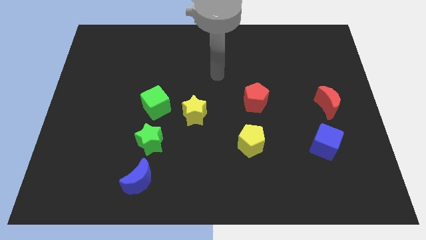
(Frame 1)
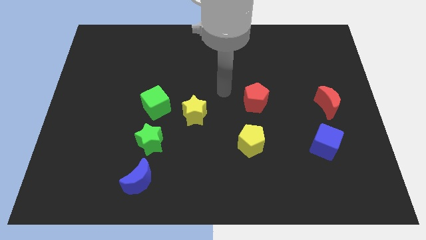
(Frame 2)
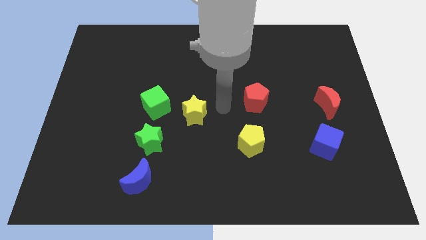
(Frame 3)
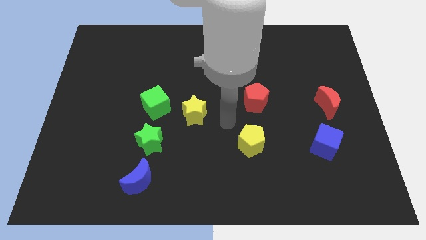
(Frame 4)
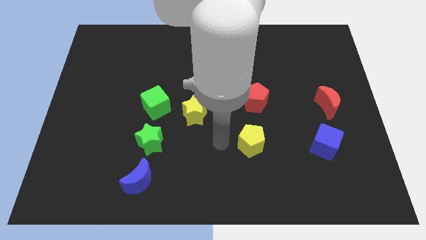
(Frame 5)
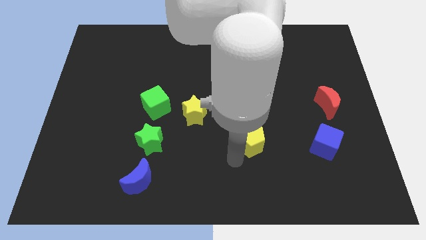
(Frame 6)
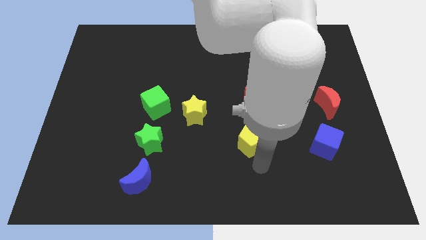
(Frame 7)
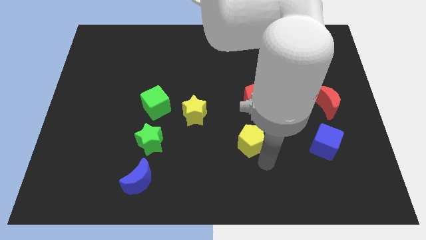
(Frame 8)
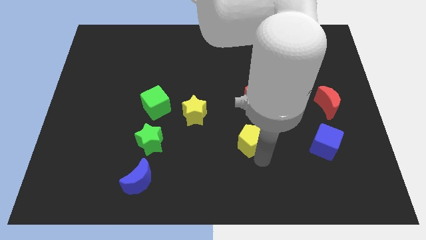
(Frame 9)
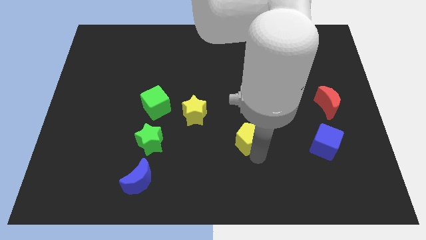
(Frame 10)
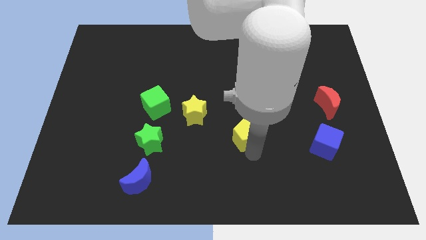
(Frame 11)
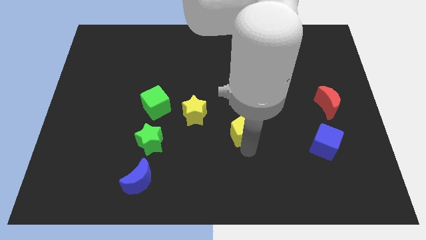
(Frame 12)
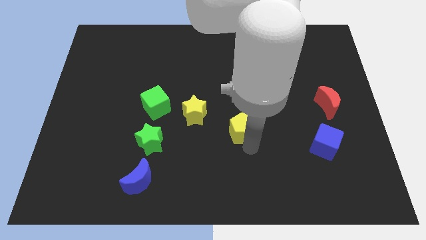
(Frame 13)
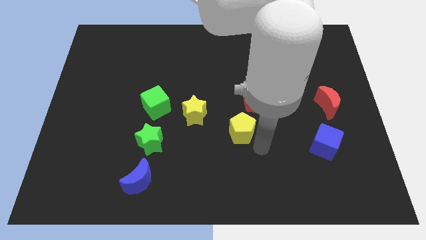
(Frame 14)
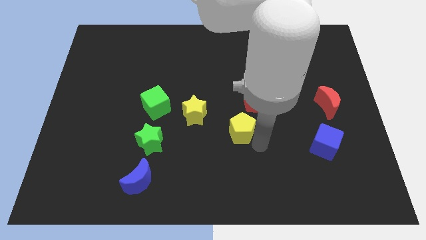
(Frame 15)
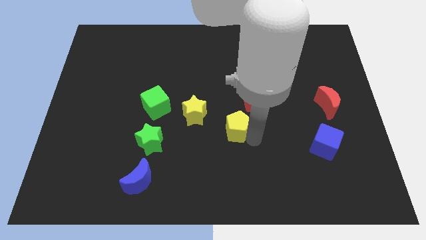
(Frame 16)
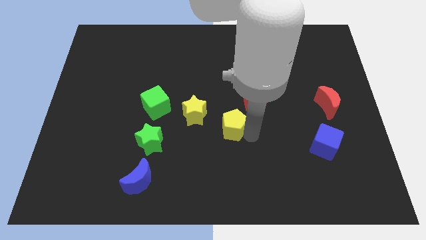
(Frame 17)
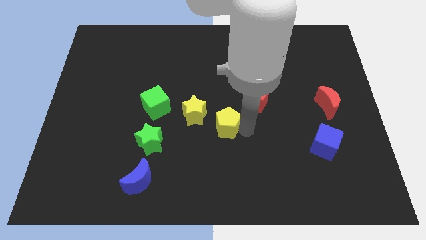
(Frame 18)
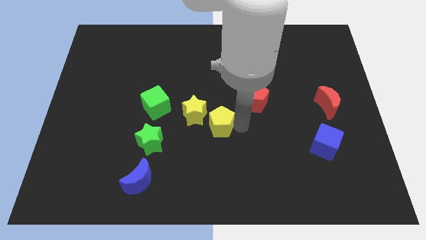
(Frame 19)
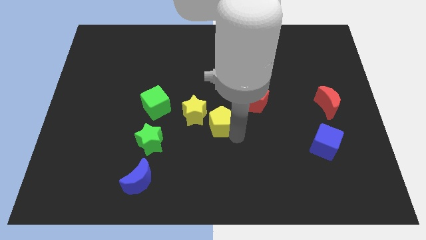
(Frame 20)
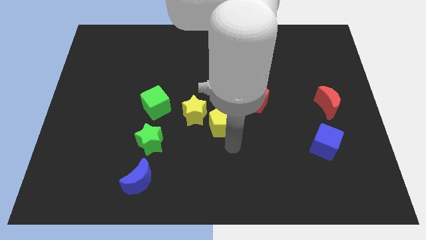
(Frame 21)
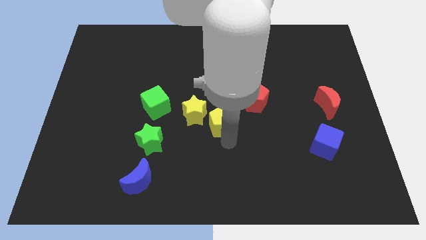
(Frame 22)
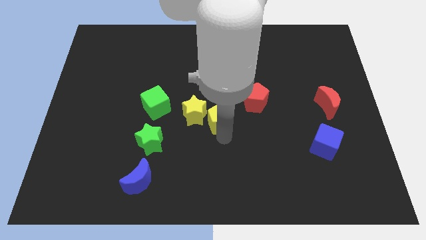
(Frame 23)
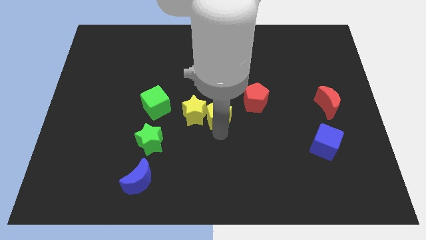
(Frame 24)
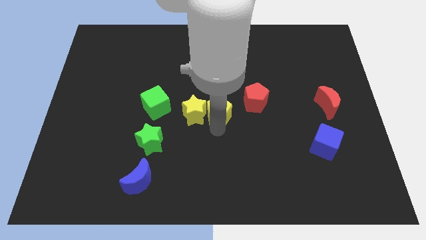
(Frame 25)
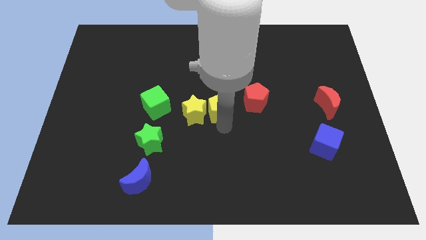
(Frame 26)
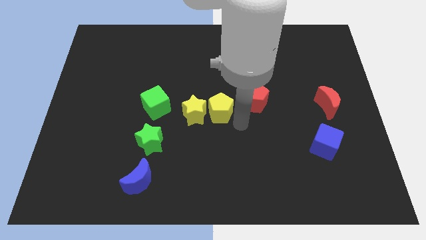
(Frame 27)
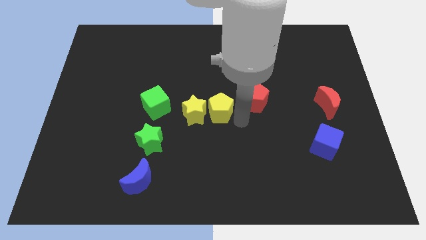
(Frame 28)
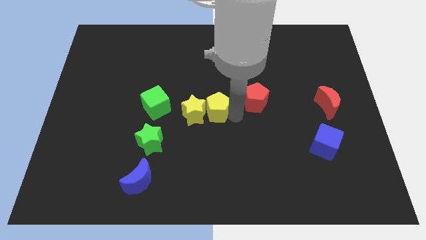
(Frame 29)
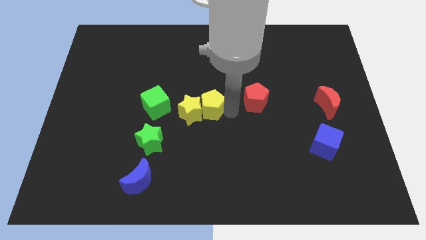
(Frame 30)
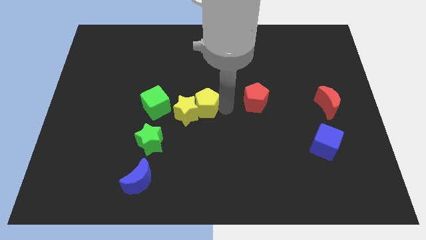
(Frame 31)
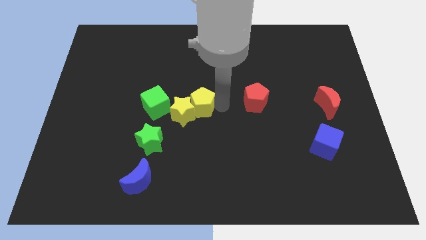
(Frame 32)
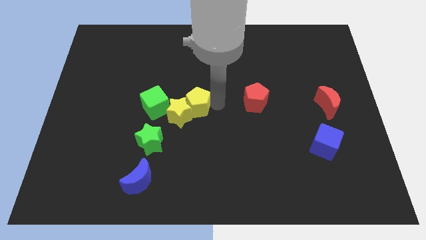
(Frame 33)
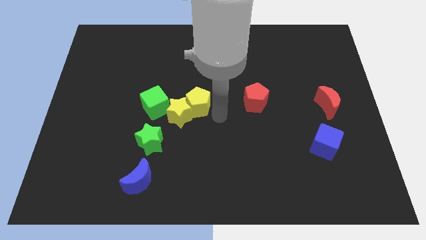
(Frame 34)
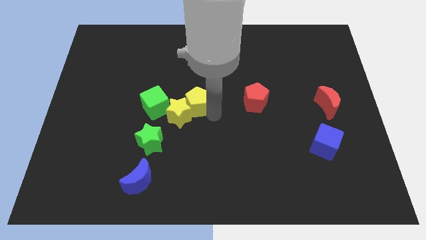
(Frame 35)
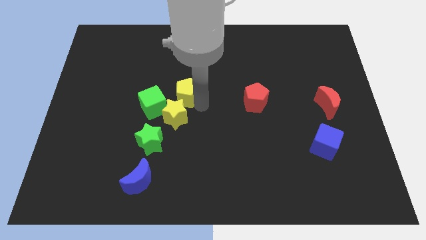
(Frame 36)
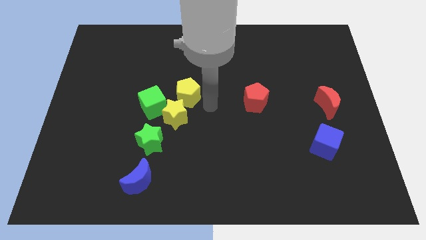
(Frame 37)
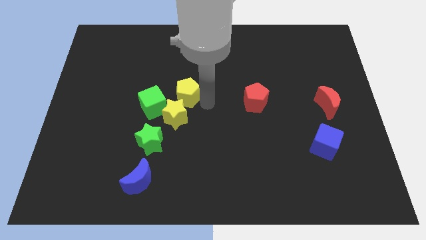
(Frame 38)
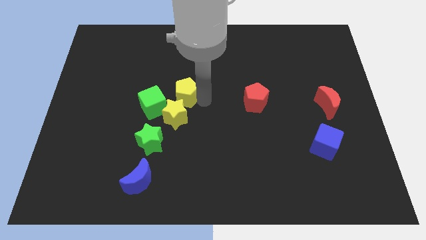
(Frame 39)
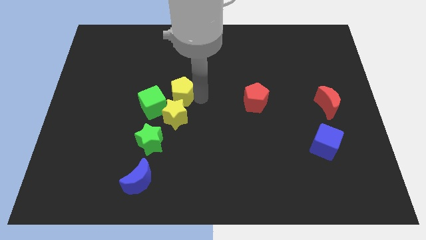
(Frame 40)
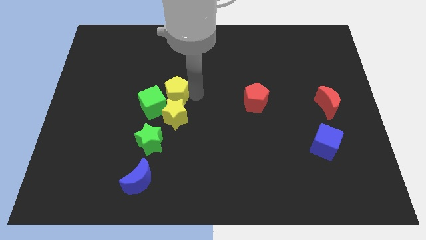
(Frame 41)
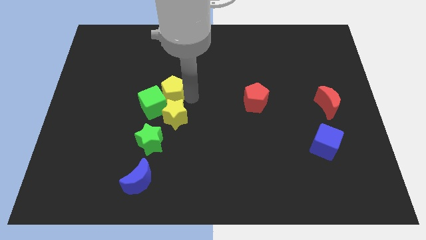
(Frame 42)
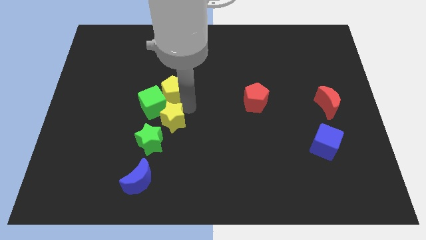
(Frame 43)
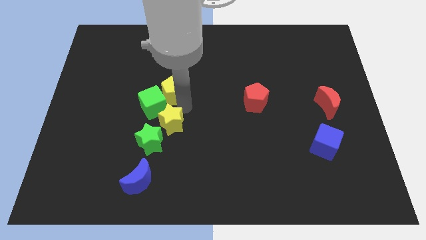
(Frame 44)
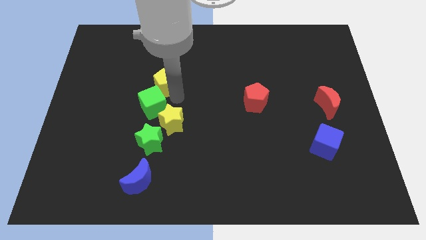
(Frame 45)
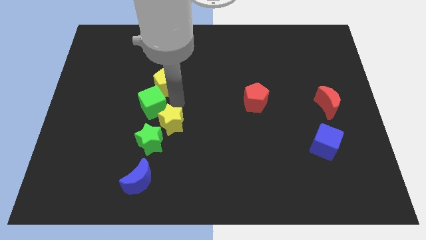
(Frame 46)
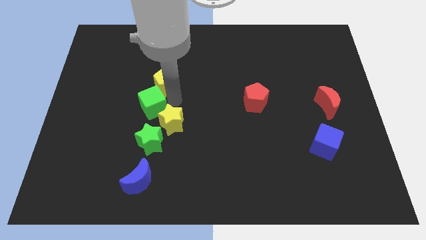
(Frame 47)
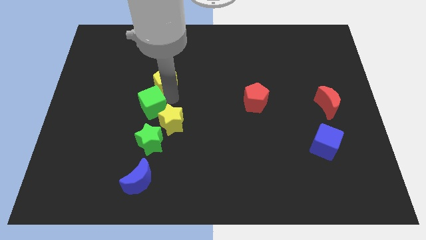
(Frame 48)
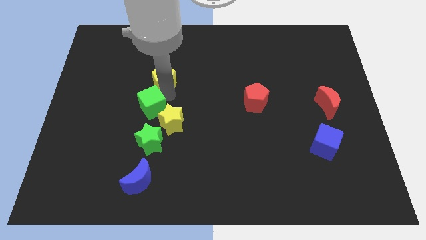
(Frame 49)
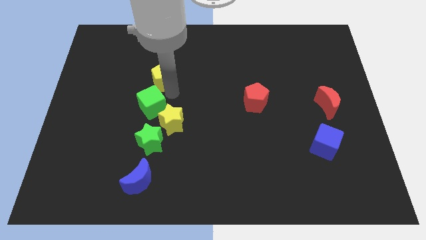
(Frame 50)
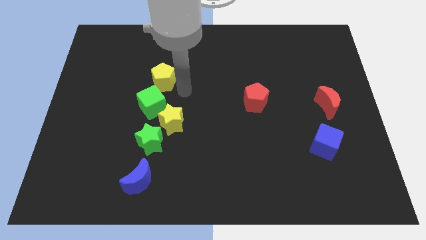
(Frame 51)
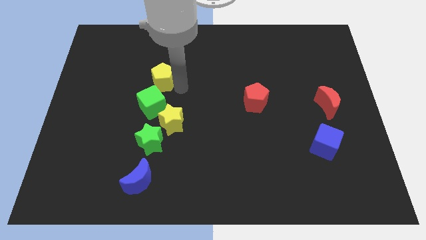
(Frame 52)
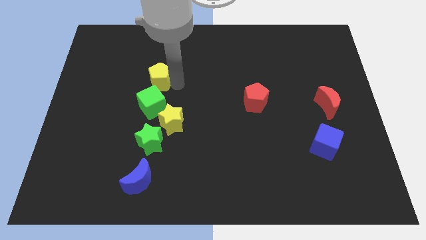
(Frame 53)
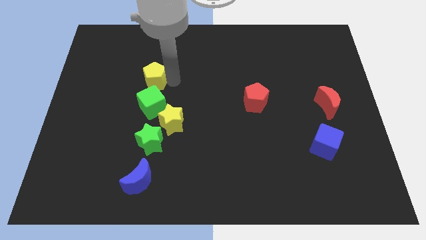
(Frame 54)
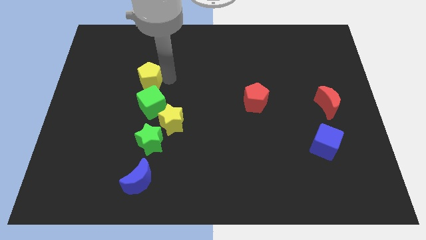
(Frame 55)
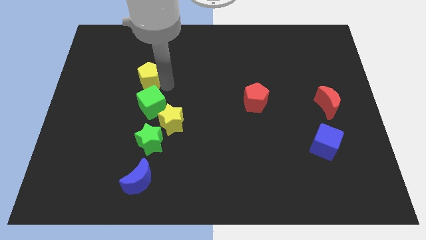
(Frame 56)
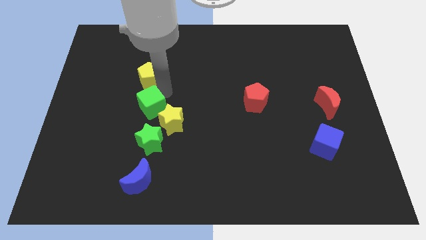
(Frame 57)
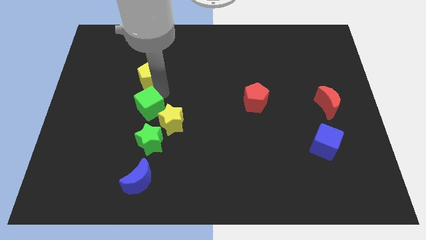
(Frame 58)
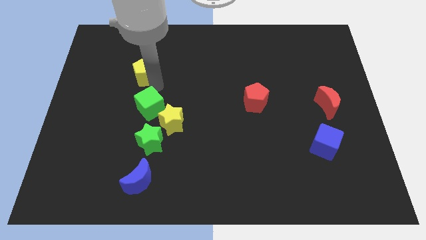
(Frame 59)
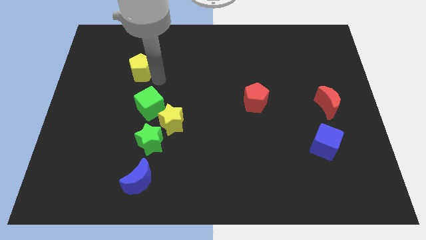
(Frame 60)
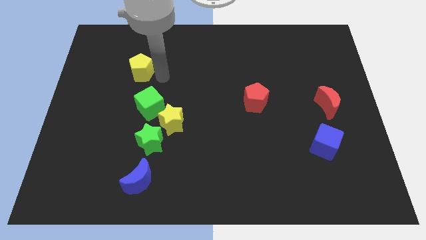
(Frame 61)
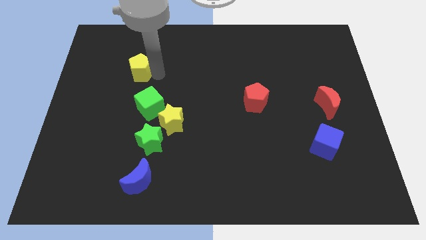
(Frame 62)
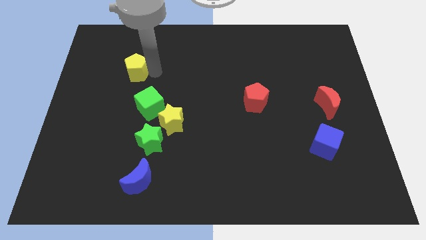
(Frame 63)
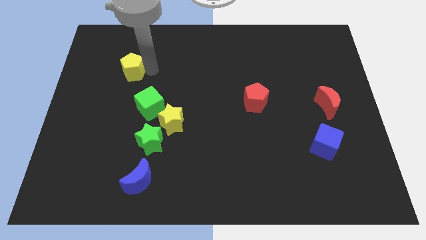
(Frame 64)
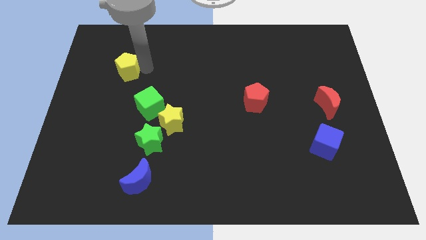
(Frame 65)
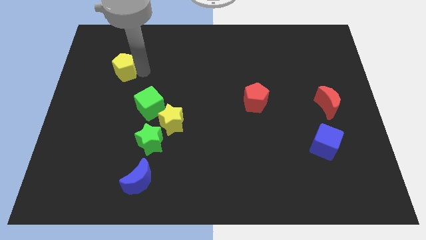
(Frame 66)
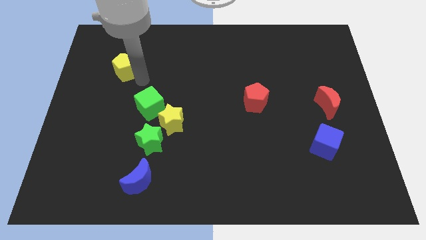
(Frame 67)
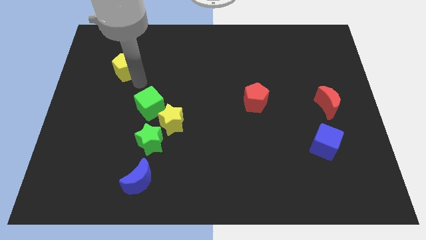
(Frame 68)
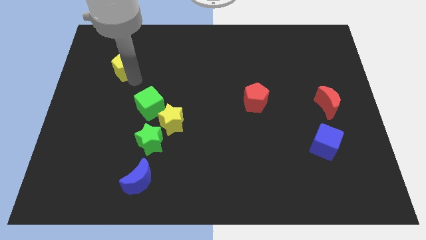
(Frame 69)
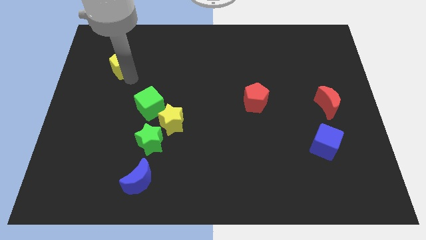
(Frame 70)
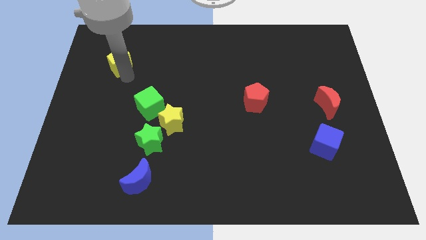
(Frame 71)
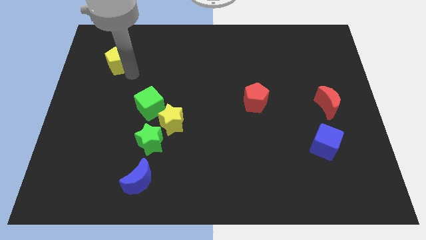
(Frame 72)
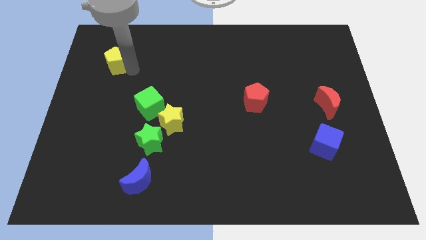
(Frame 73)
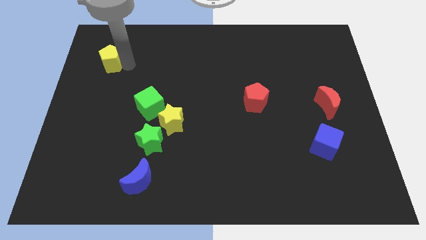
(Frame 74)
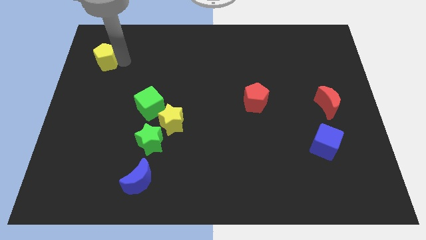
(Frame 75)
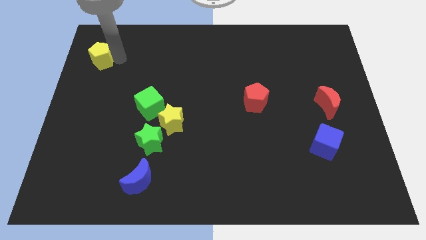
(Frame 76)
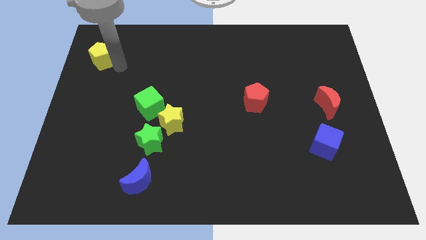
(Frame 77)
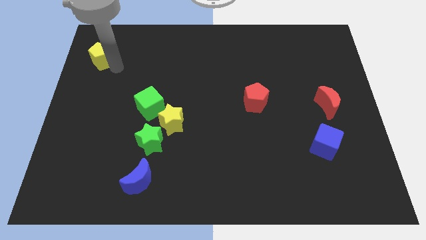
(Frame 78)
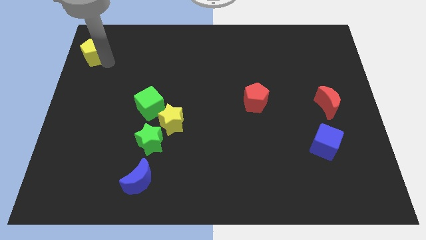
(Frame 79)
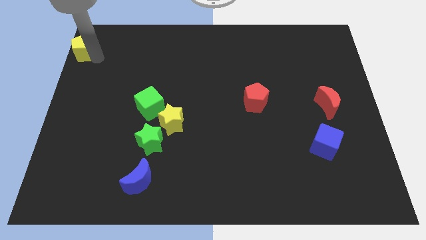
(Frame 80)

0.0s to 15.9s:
slide the yellow pentagon to the top left
